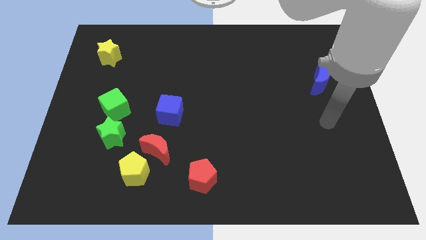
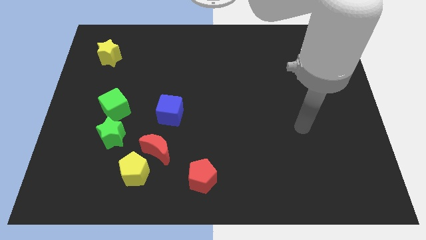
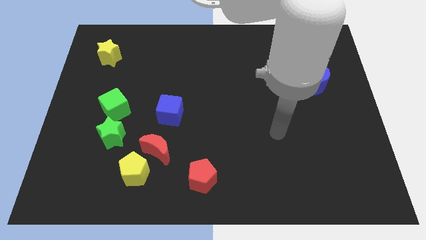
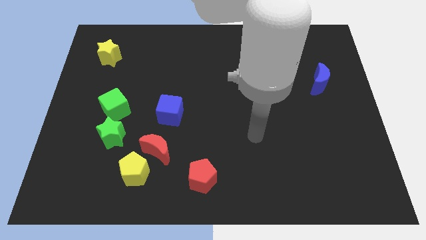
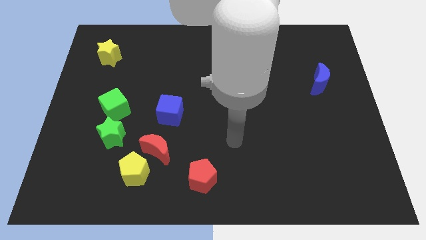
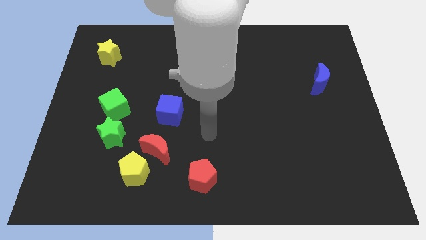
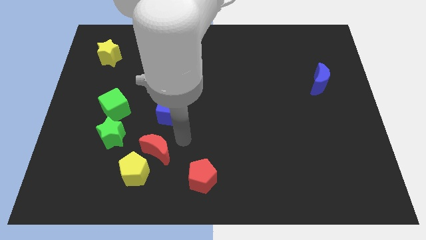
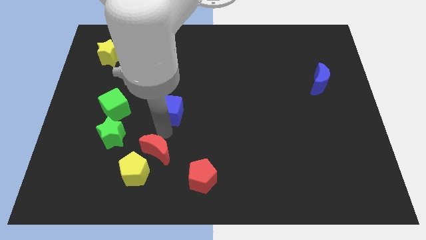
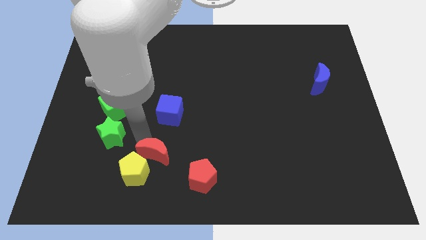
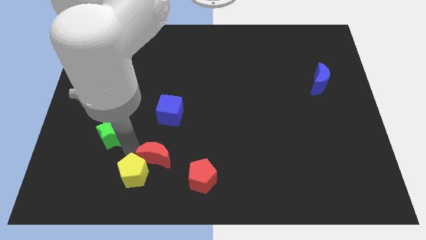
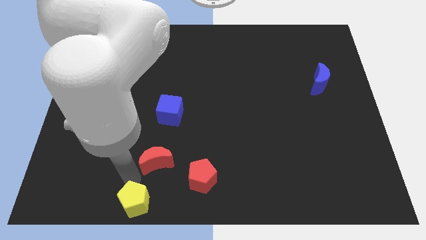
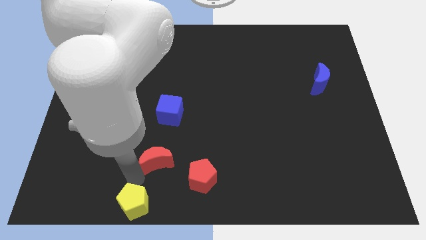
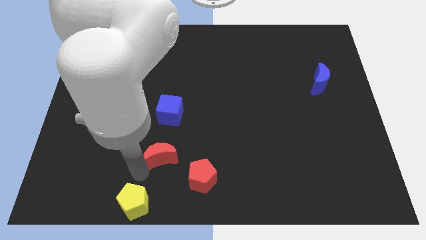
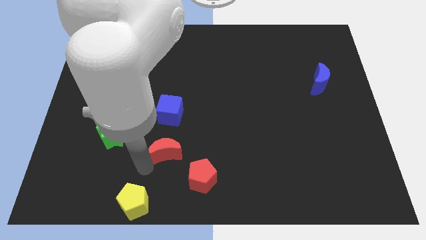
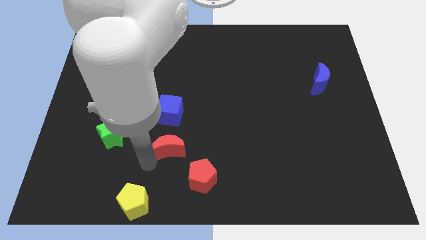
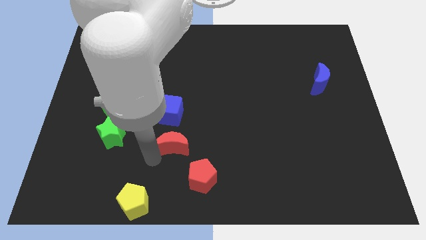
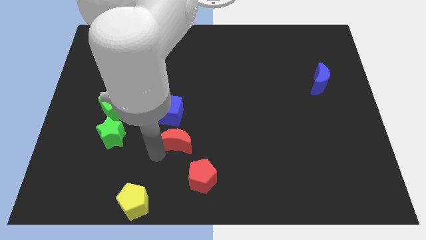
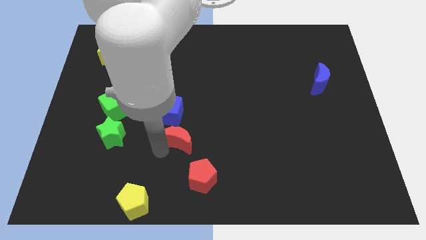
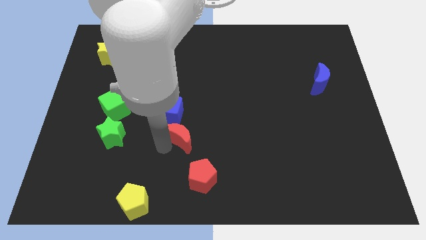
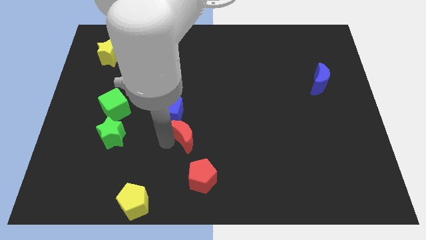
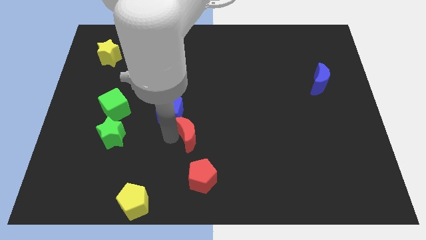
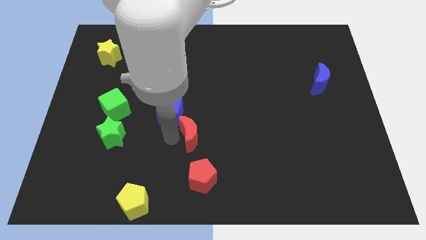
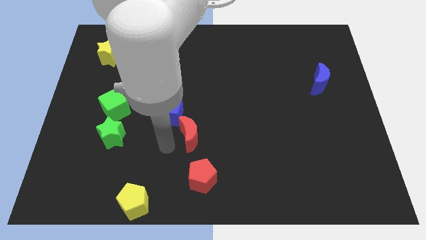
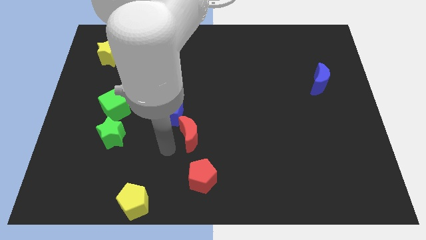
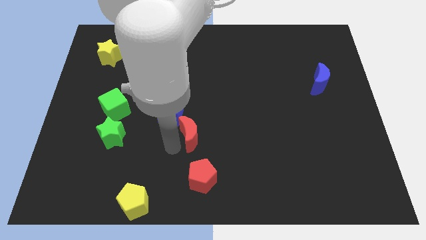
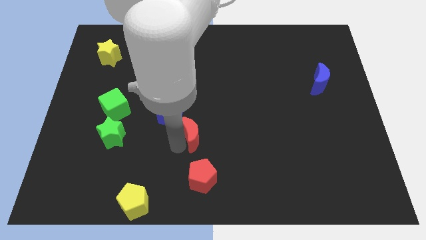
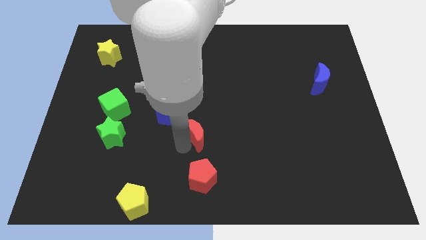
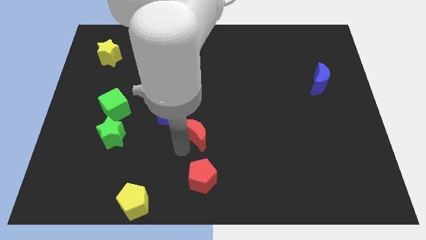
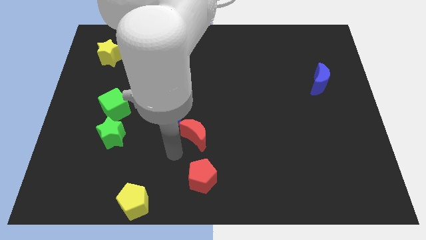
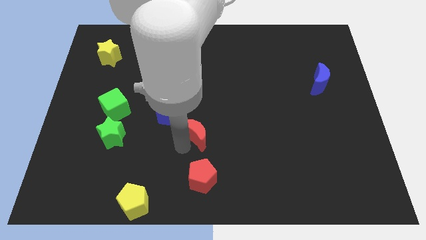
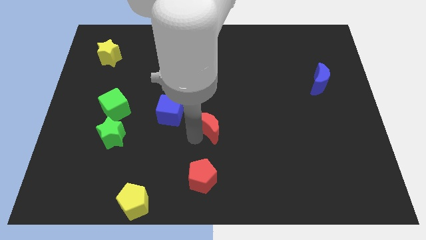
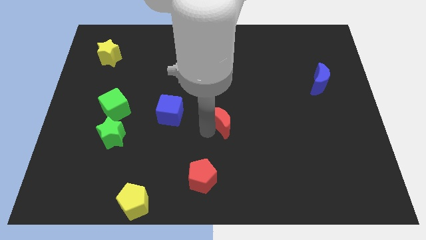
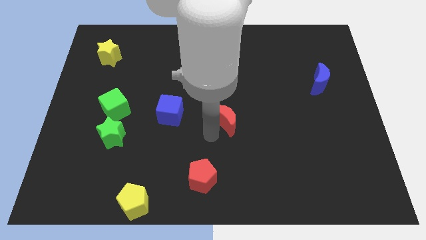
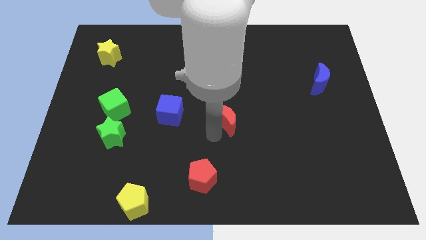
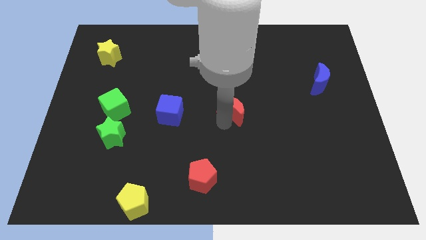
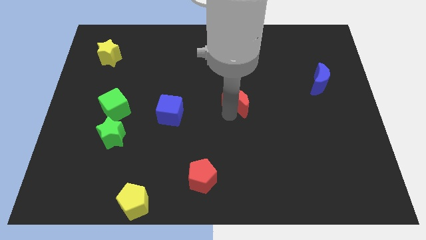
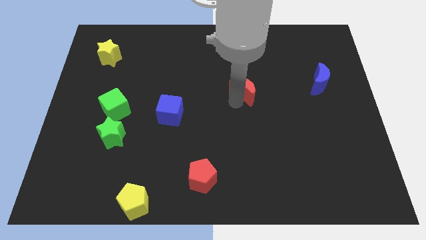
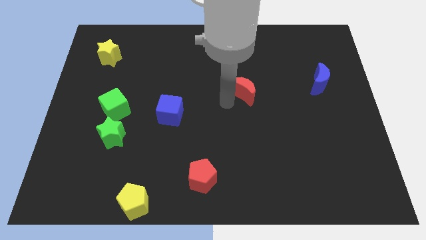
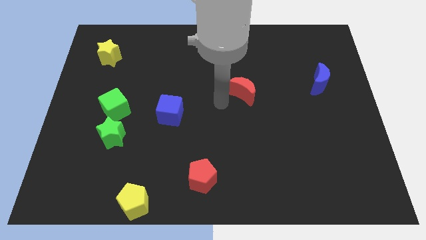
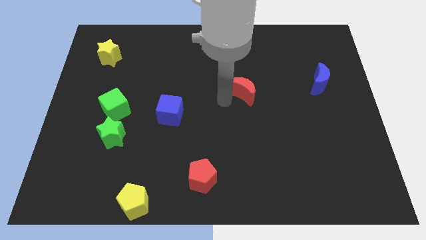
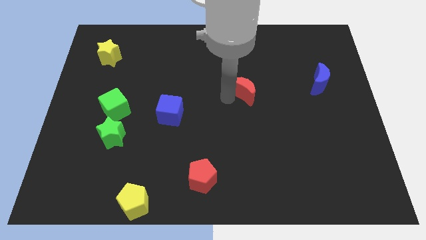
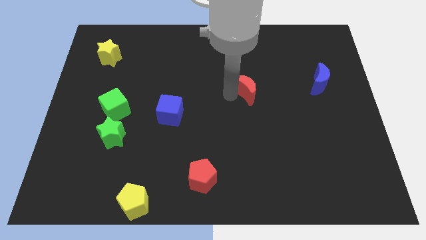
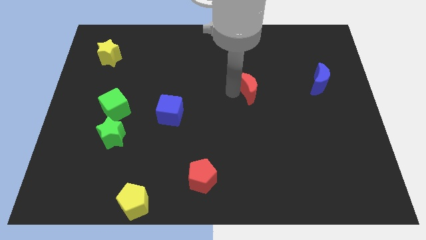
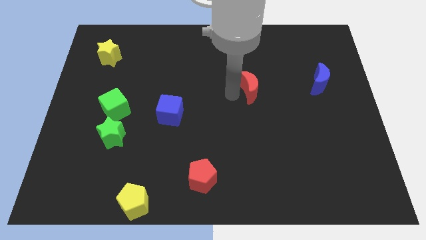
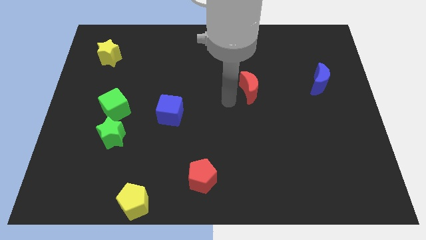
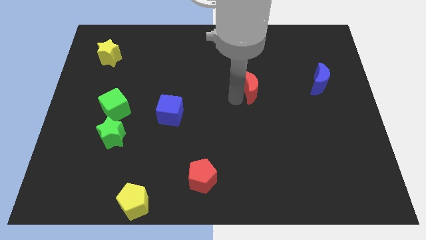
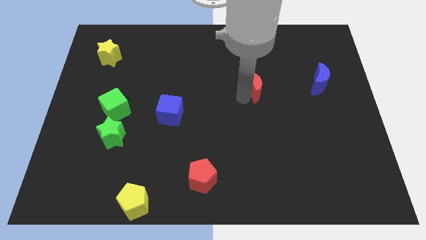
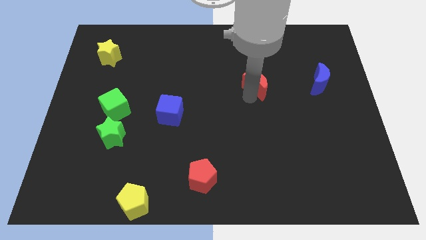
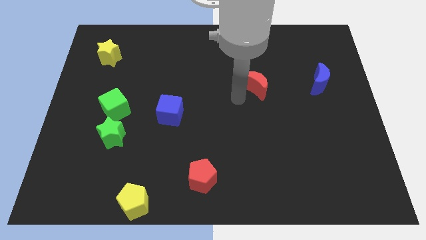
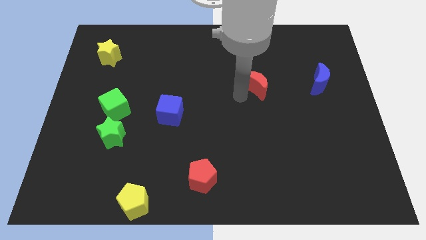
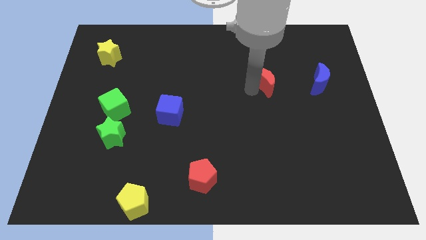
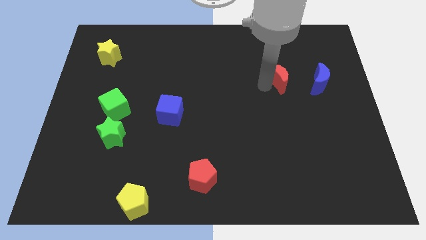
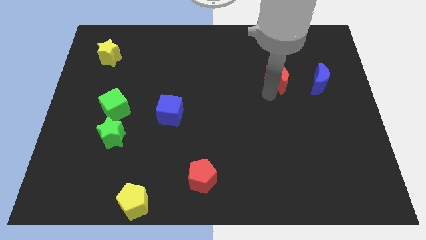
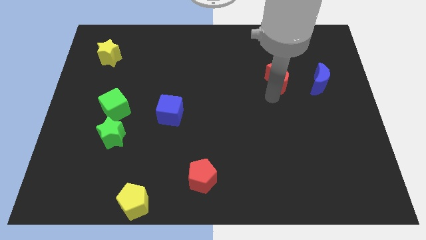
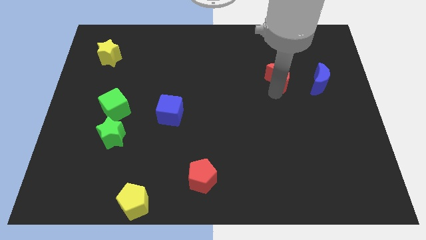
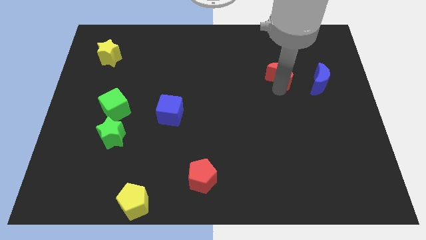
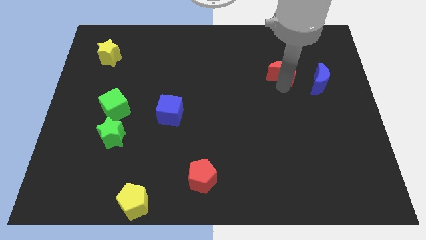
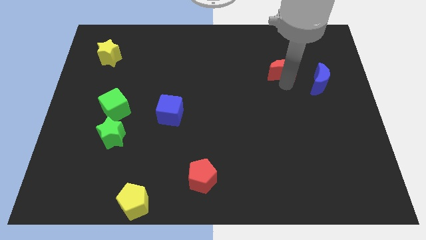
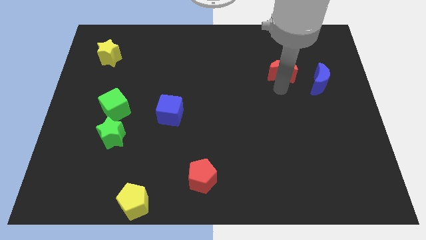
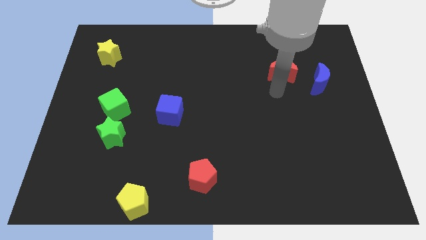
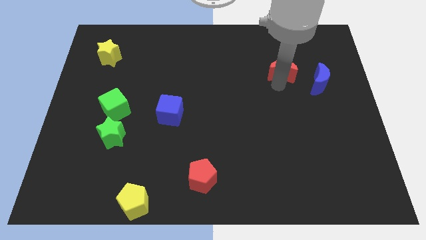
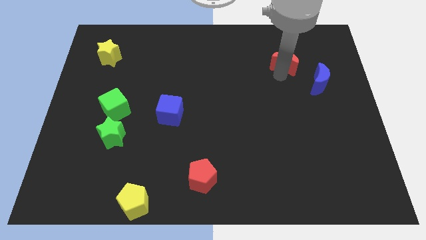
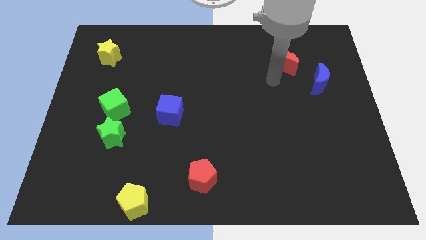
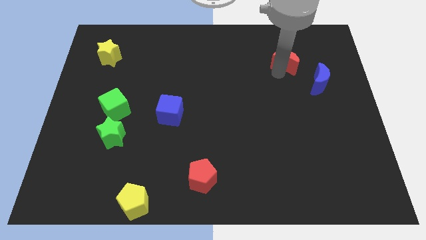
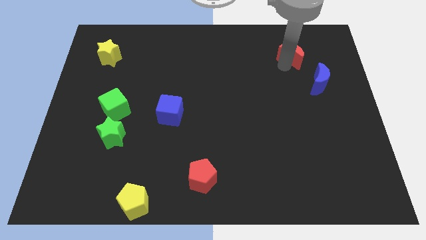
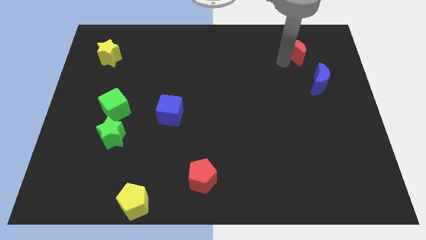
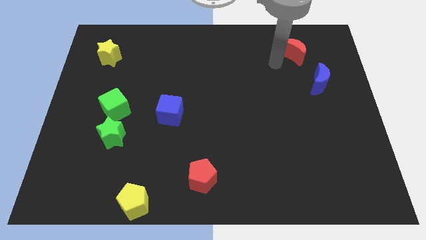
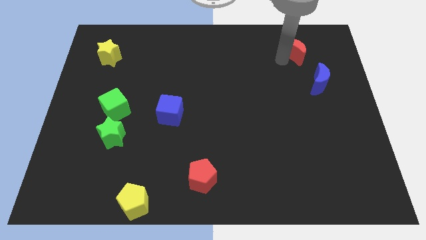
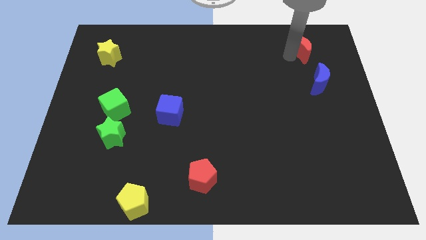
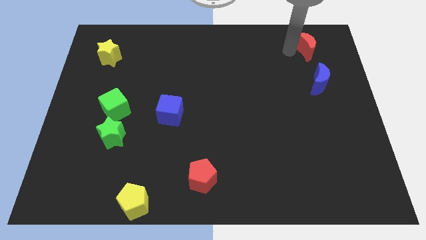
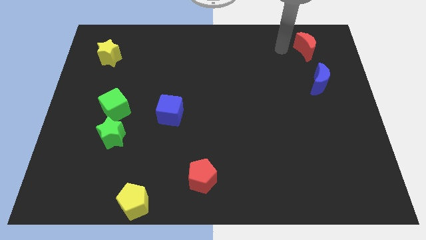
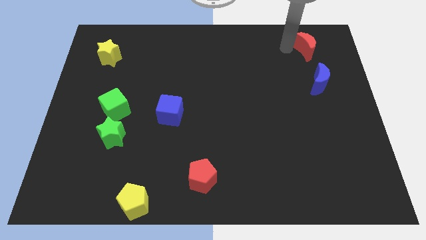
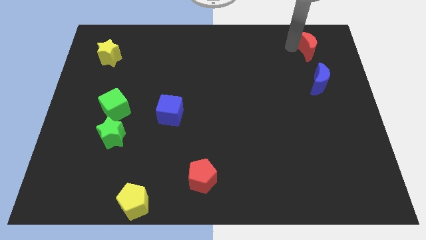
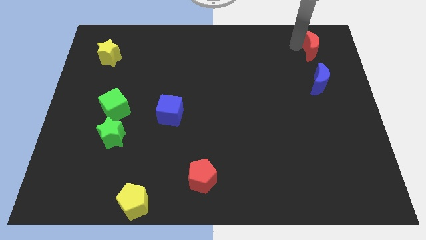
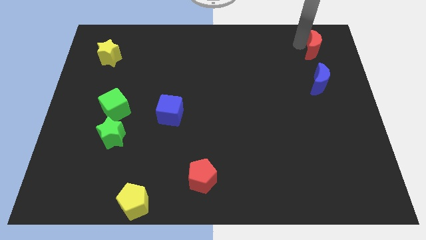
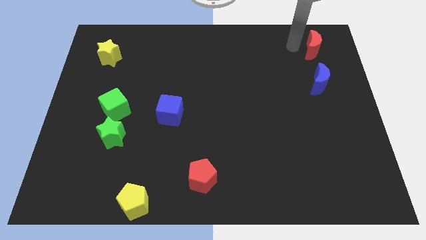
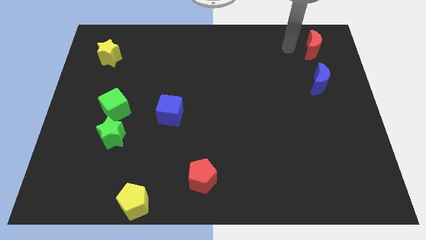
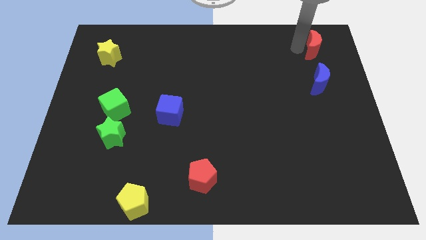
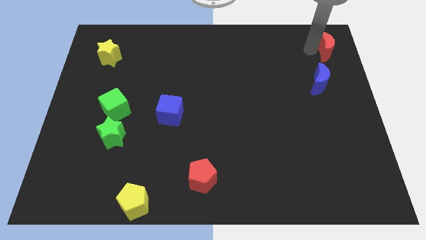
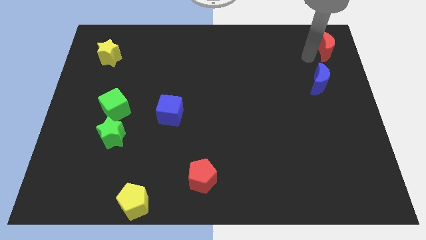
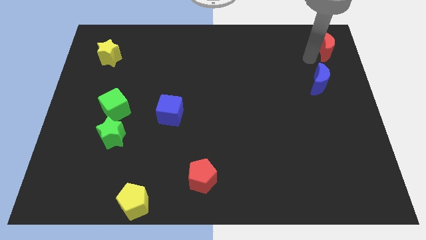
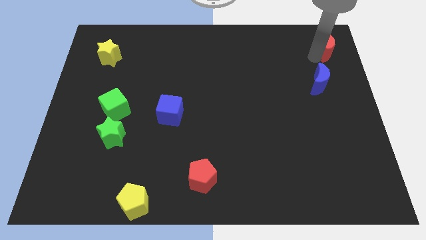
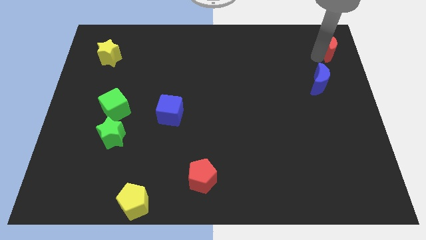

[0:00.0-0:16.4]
push the red moon to the upper right corner
